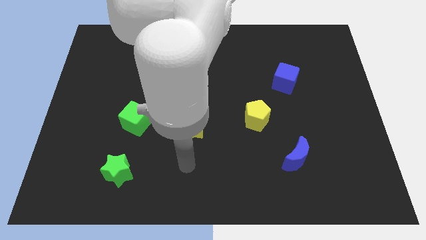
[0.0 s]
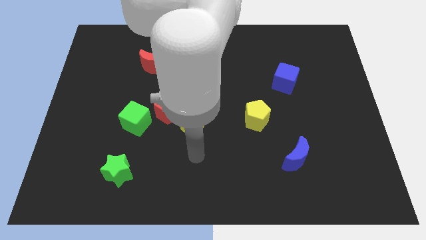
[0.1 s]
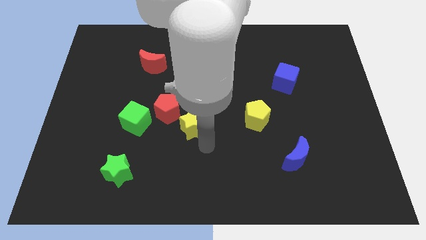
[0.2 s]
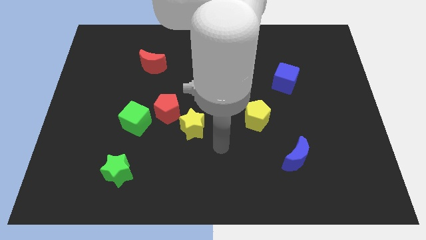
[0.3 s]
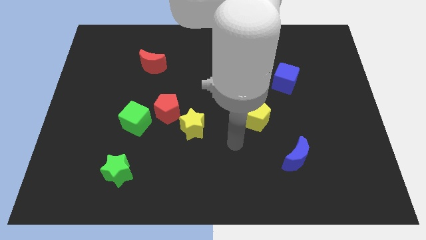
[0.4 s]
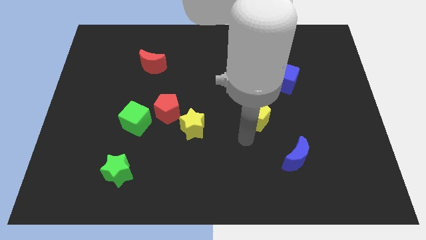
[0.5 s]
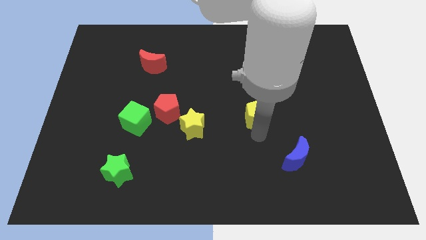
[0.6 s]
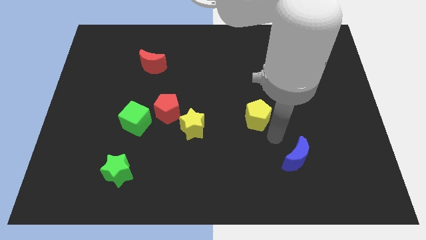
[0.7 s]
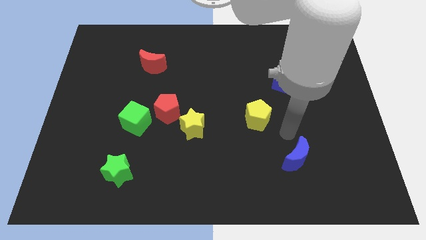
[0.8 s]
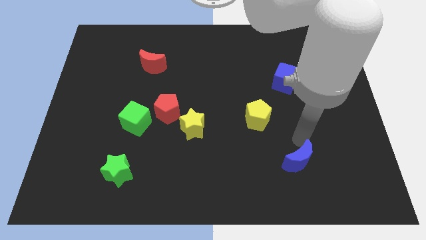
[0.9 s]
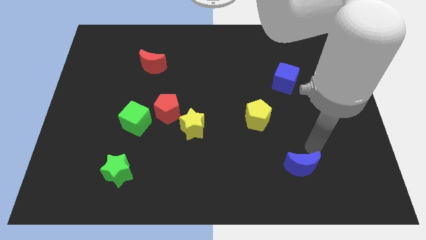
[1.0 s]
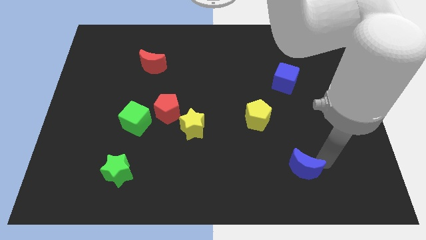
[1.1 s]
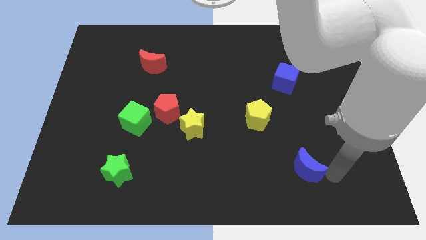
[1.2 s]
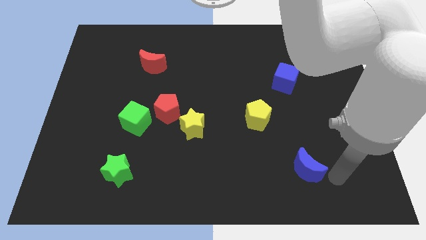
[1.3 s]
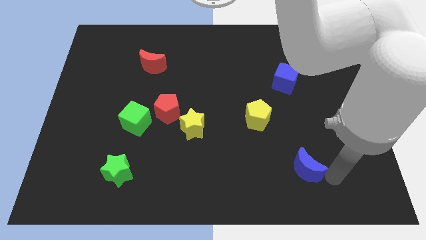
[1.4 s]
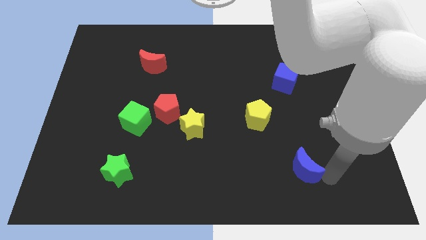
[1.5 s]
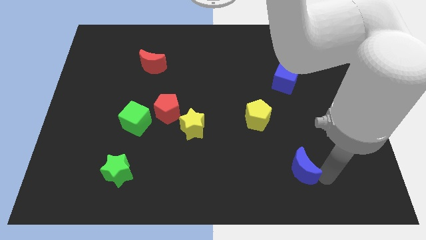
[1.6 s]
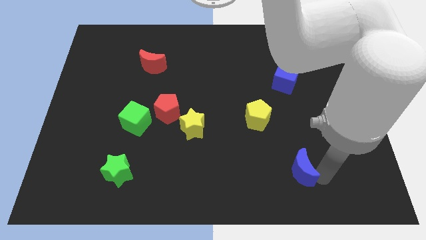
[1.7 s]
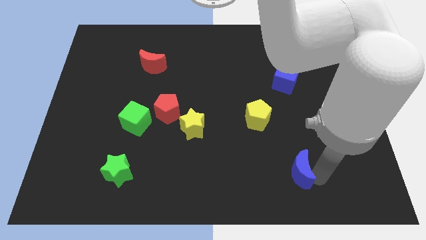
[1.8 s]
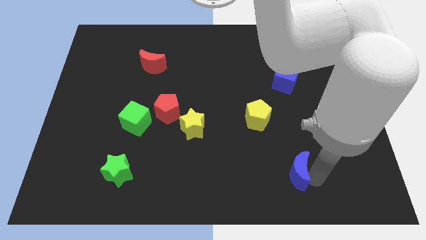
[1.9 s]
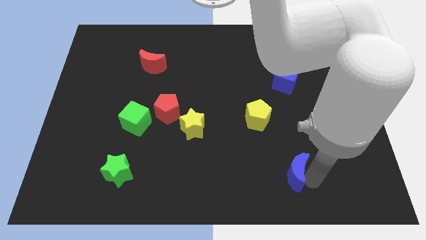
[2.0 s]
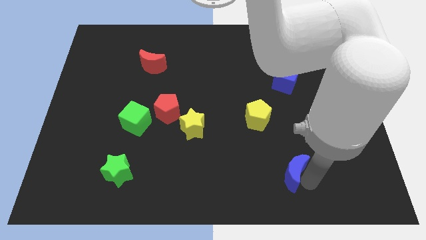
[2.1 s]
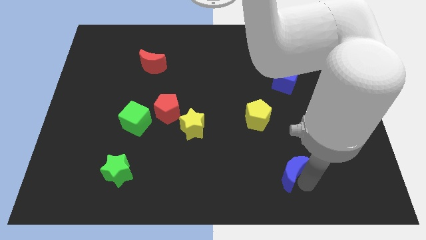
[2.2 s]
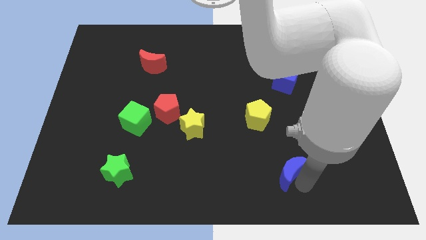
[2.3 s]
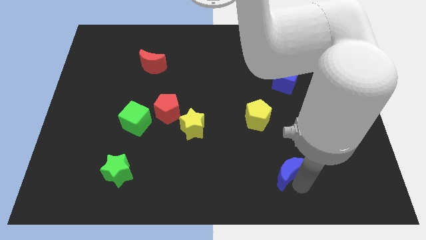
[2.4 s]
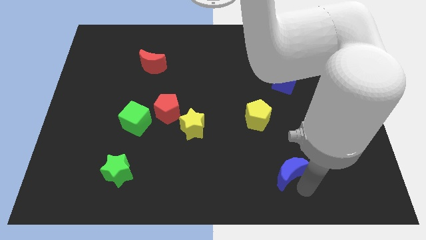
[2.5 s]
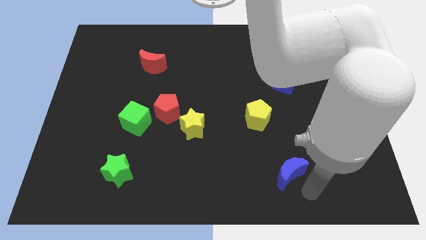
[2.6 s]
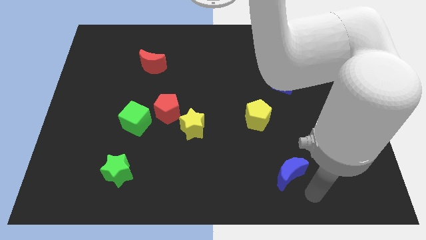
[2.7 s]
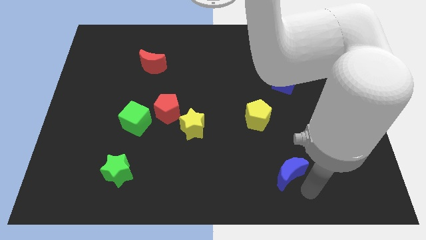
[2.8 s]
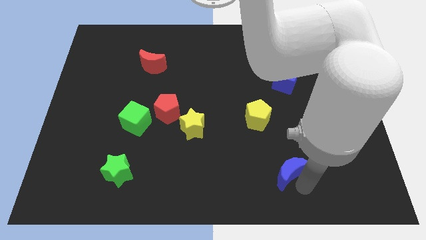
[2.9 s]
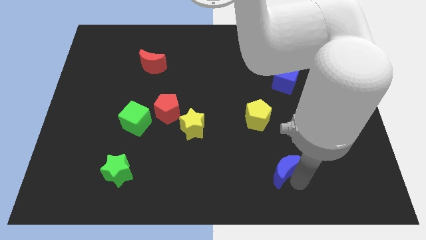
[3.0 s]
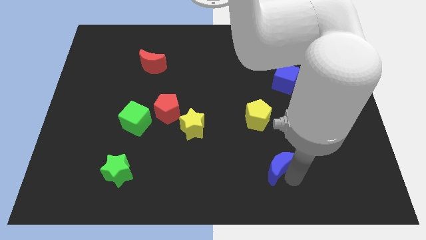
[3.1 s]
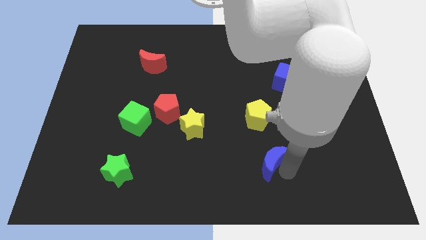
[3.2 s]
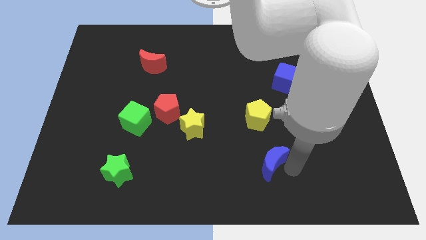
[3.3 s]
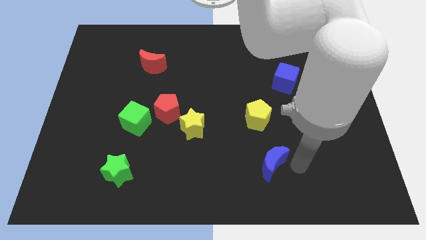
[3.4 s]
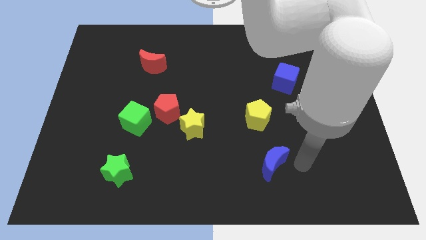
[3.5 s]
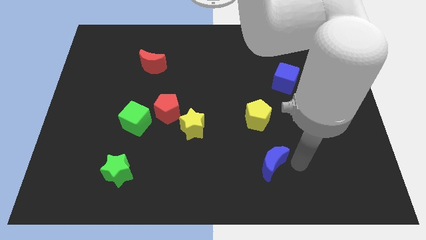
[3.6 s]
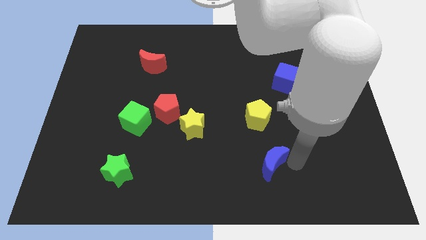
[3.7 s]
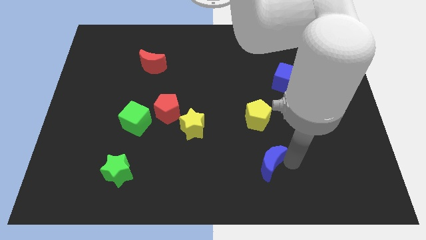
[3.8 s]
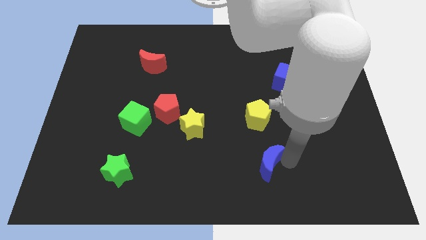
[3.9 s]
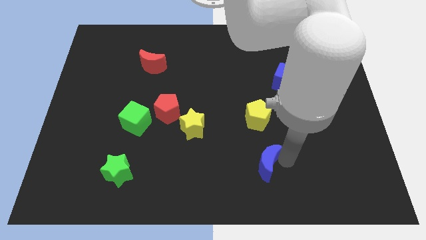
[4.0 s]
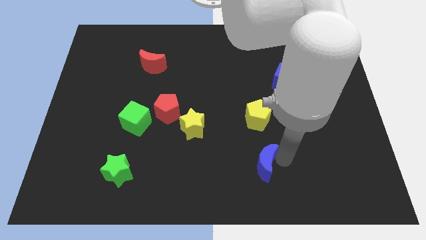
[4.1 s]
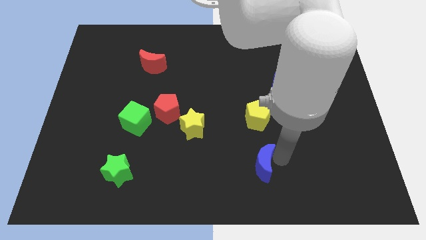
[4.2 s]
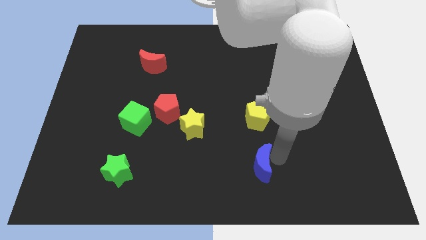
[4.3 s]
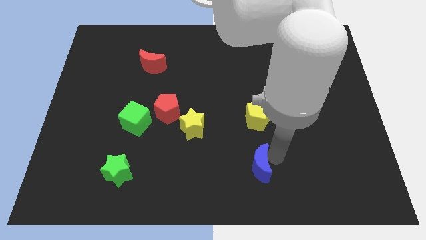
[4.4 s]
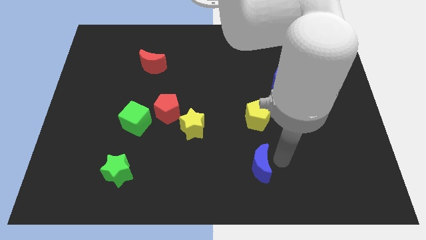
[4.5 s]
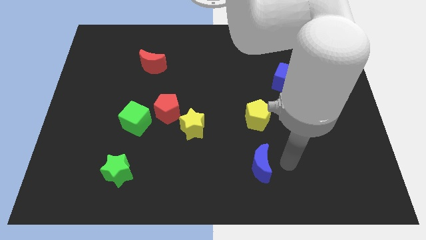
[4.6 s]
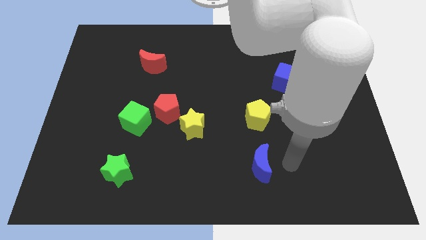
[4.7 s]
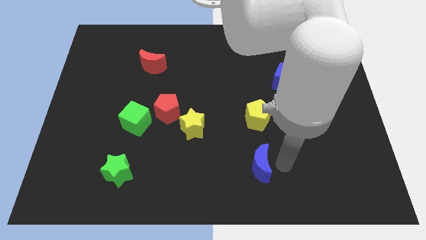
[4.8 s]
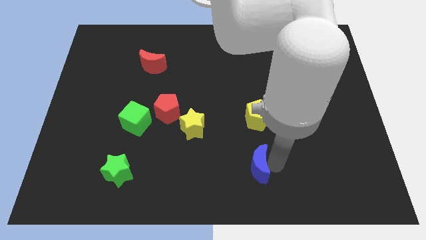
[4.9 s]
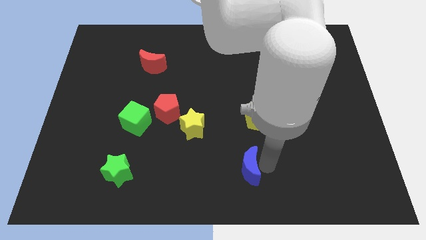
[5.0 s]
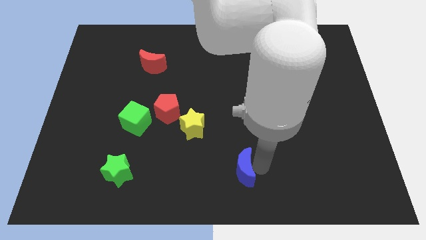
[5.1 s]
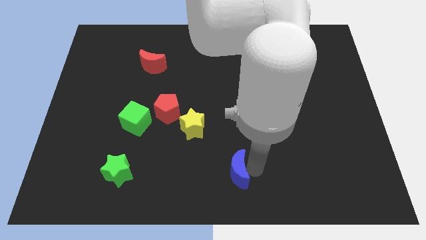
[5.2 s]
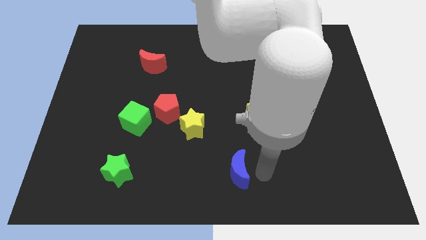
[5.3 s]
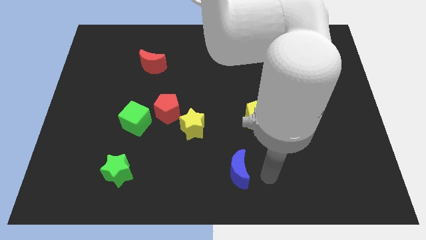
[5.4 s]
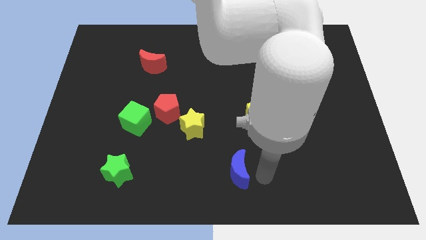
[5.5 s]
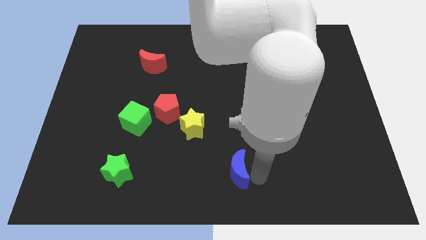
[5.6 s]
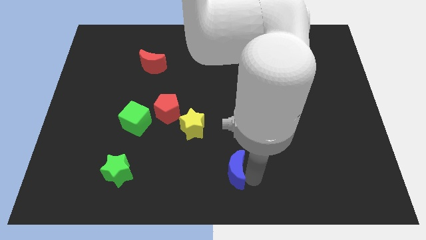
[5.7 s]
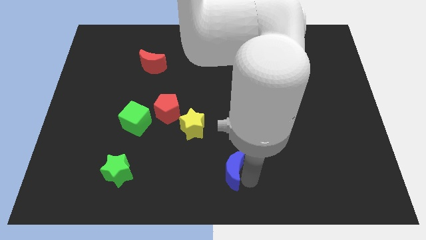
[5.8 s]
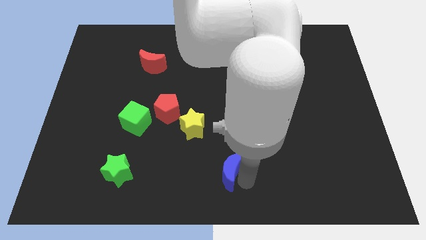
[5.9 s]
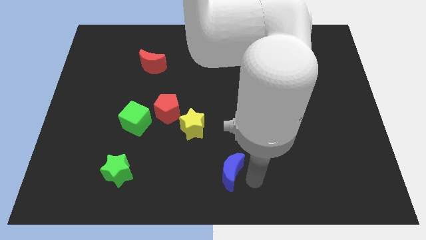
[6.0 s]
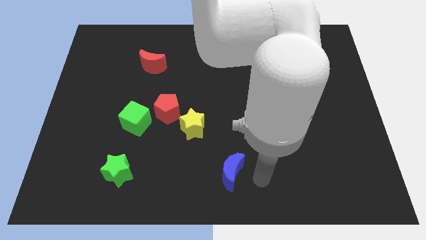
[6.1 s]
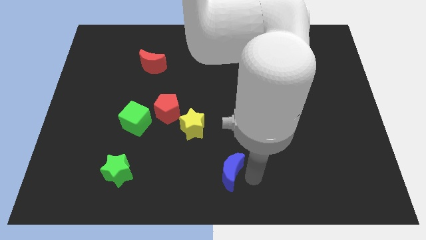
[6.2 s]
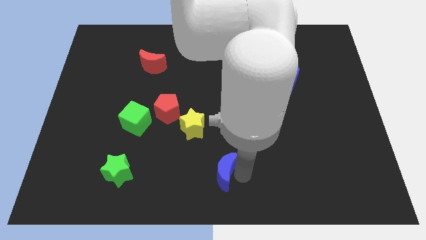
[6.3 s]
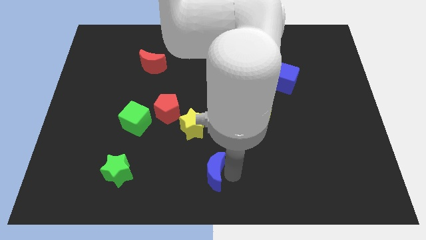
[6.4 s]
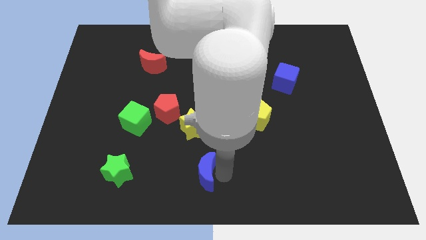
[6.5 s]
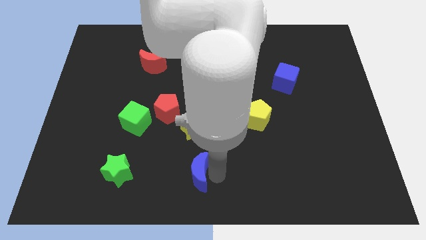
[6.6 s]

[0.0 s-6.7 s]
push the blue moon left

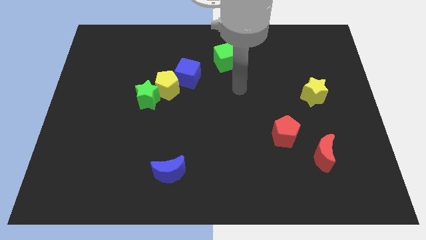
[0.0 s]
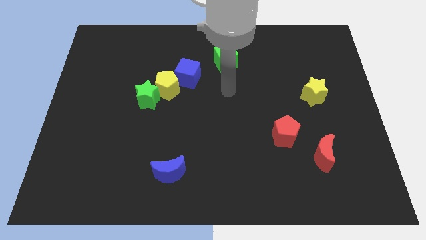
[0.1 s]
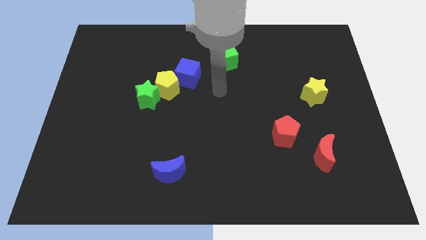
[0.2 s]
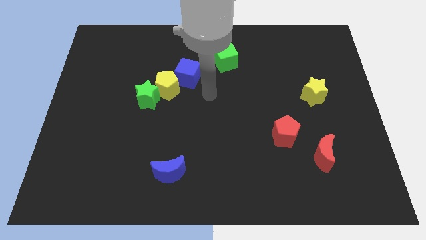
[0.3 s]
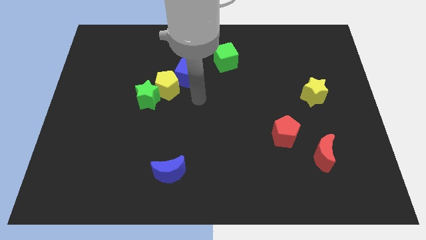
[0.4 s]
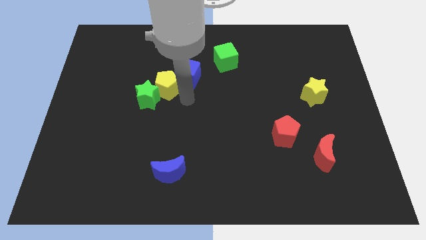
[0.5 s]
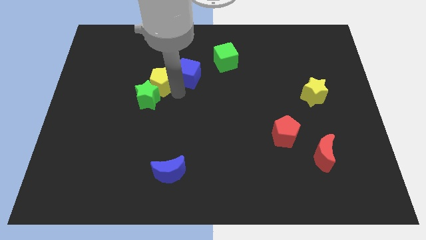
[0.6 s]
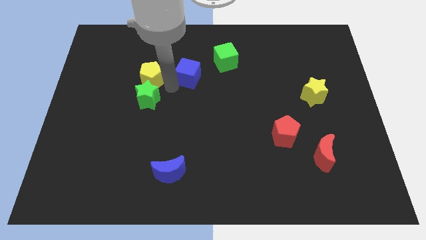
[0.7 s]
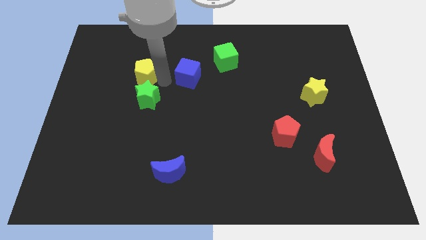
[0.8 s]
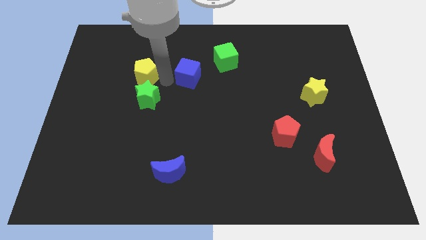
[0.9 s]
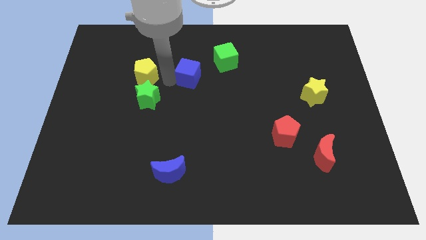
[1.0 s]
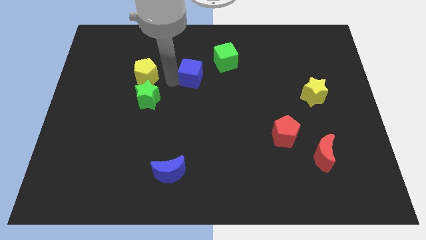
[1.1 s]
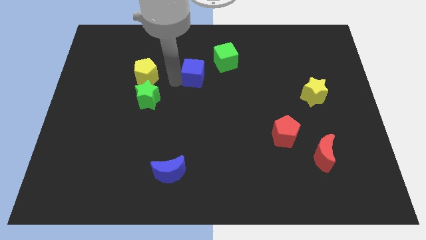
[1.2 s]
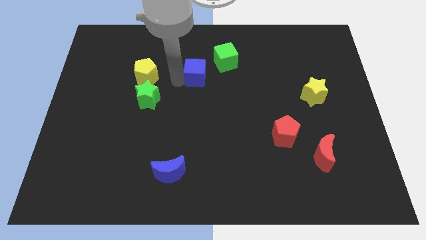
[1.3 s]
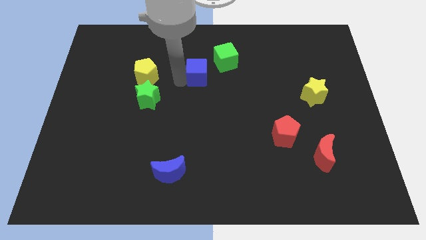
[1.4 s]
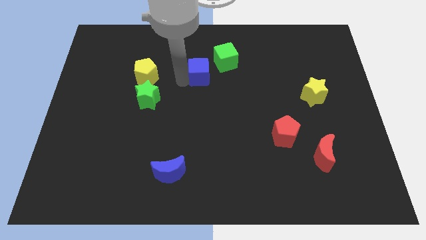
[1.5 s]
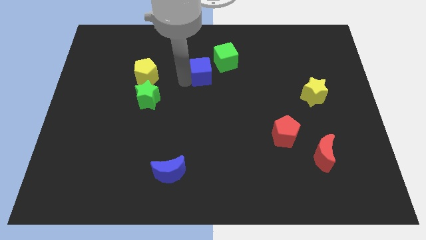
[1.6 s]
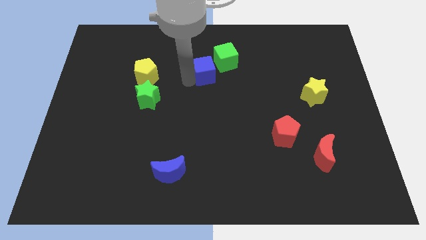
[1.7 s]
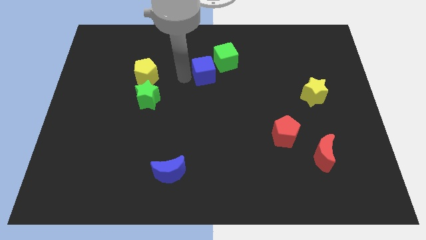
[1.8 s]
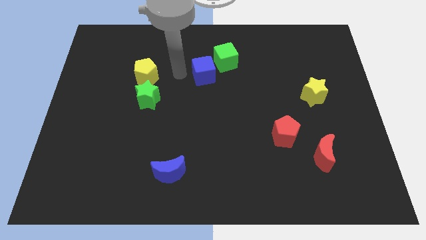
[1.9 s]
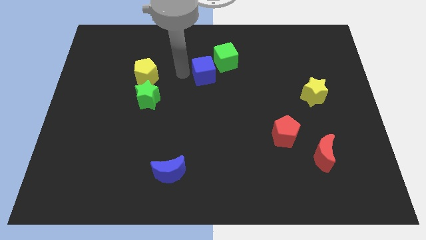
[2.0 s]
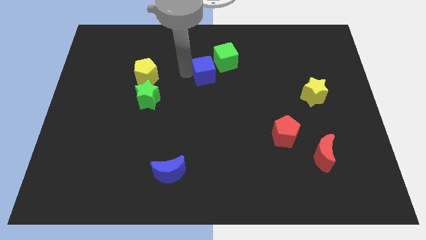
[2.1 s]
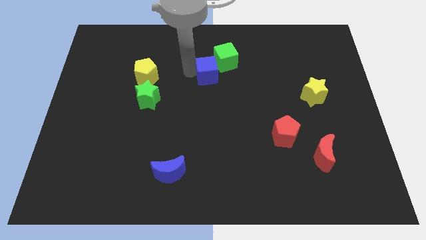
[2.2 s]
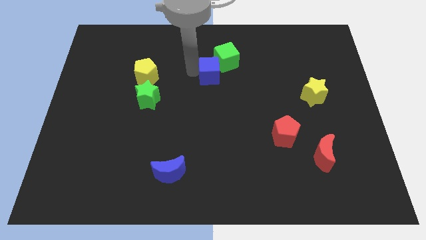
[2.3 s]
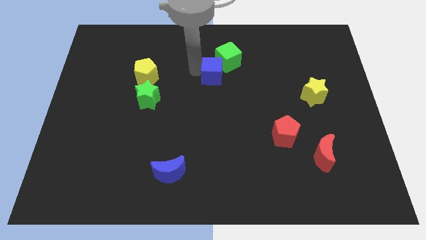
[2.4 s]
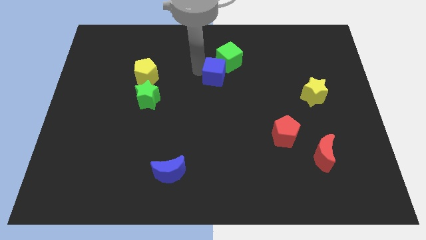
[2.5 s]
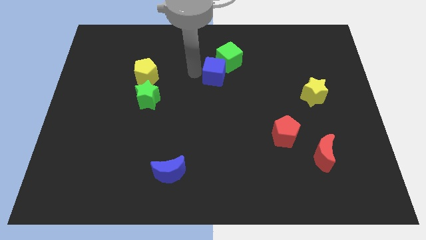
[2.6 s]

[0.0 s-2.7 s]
move the blue cube to the right a little bit
